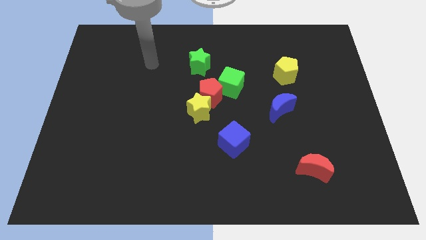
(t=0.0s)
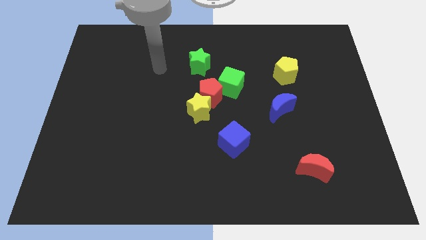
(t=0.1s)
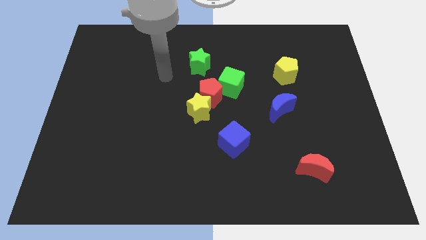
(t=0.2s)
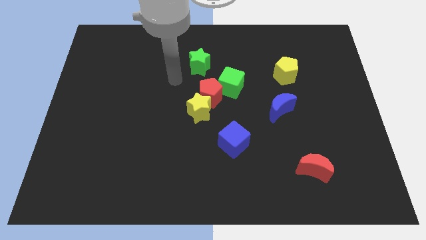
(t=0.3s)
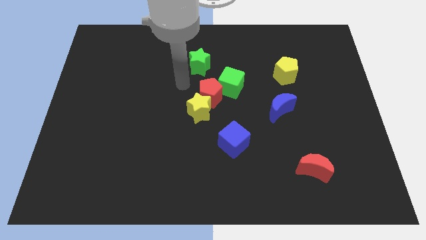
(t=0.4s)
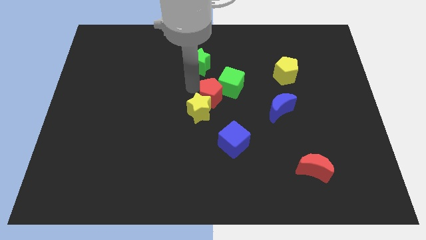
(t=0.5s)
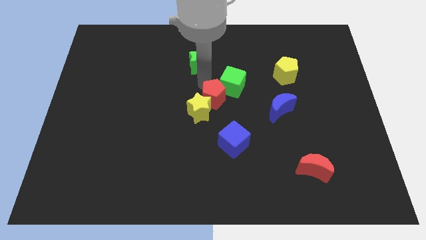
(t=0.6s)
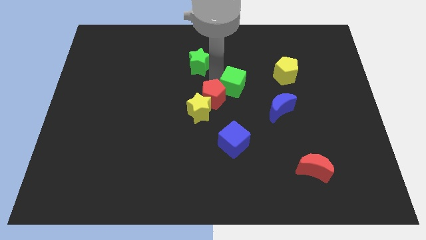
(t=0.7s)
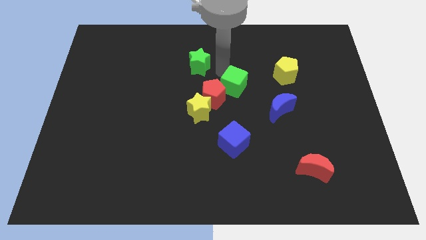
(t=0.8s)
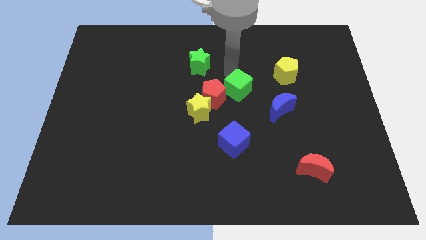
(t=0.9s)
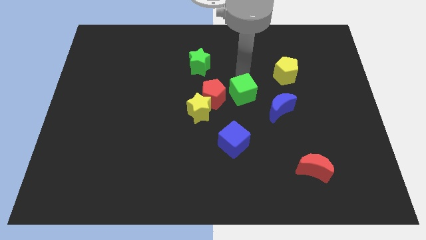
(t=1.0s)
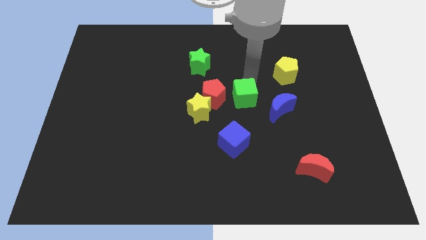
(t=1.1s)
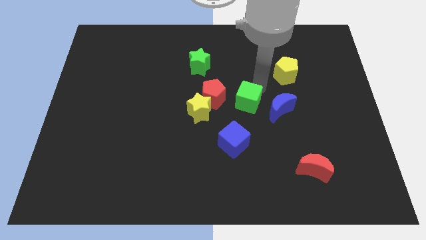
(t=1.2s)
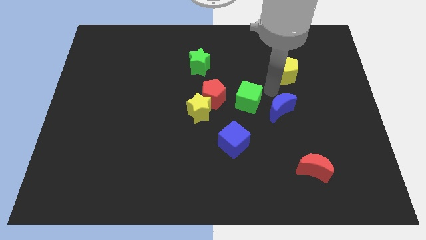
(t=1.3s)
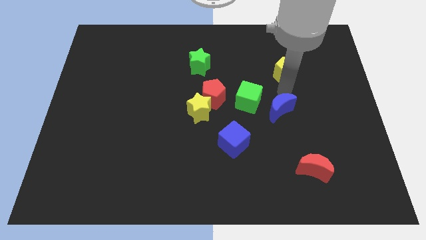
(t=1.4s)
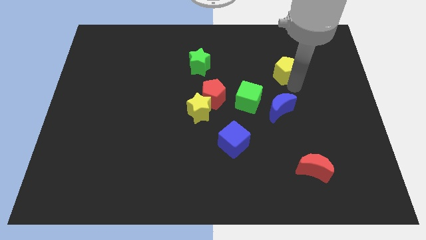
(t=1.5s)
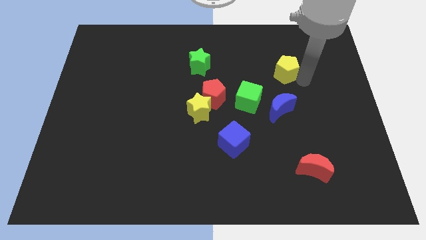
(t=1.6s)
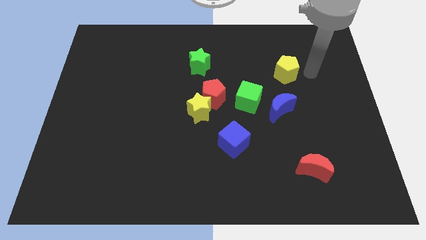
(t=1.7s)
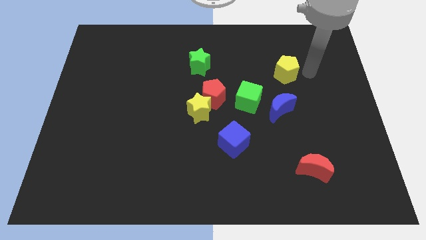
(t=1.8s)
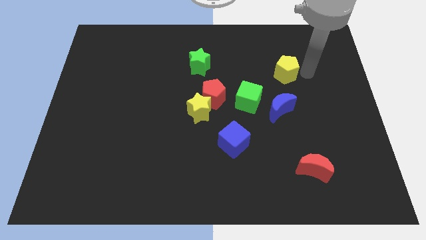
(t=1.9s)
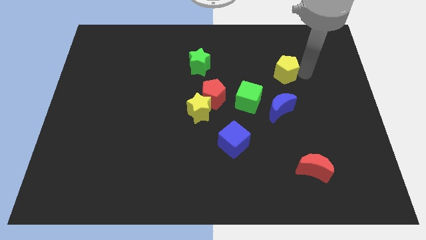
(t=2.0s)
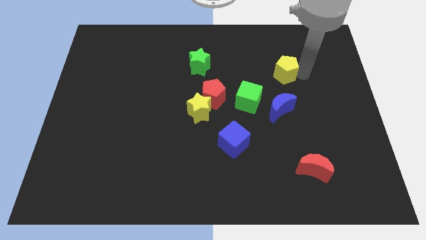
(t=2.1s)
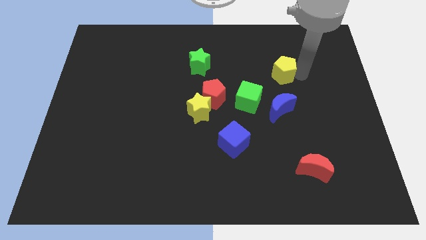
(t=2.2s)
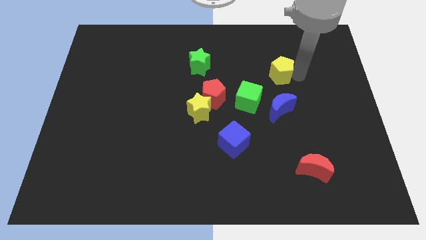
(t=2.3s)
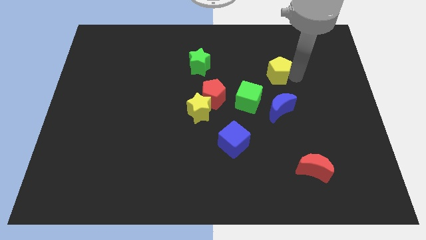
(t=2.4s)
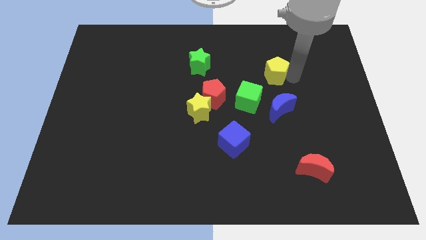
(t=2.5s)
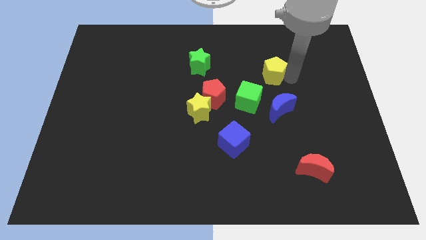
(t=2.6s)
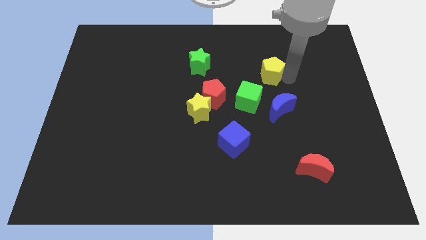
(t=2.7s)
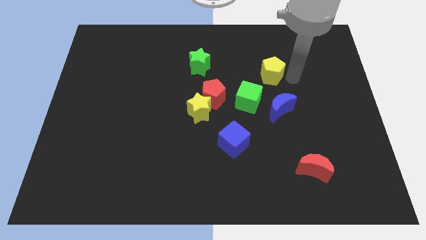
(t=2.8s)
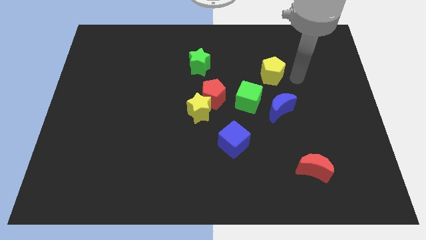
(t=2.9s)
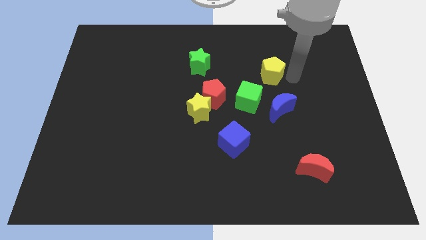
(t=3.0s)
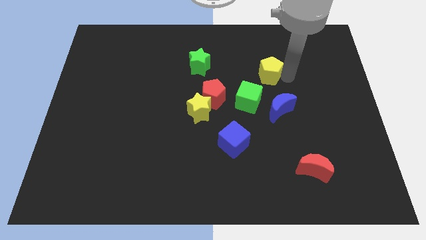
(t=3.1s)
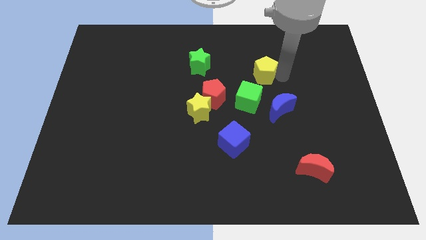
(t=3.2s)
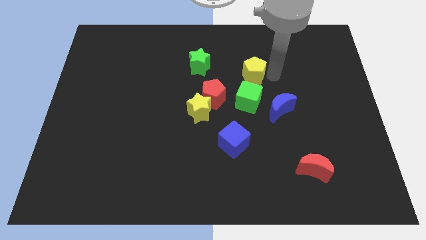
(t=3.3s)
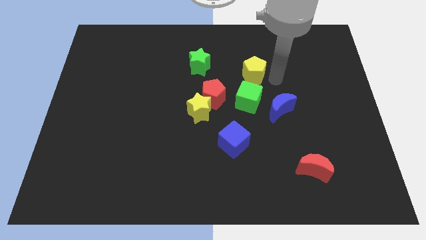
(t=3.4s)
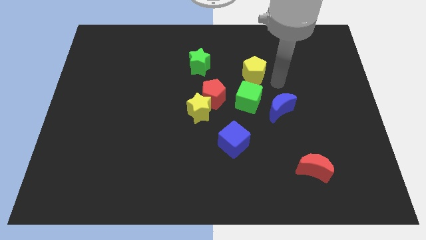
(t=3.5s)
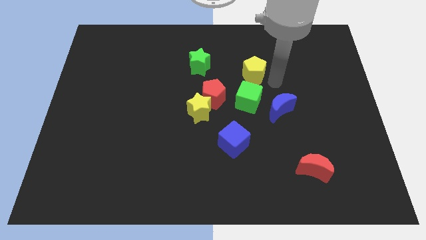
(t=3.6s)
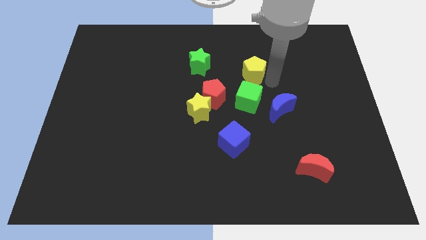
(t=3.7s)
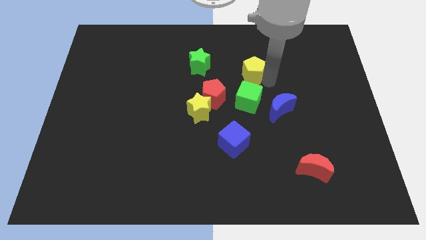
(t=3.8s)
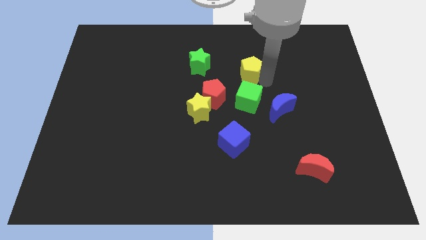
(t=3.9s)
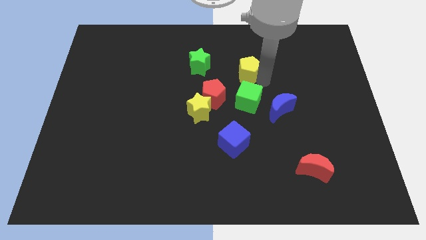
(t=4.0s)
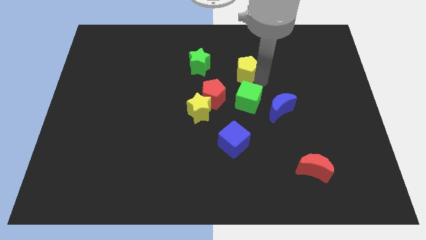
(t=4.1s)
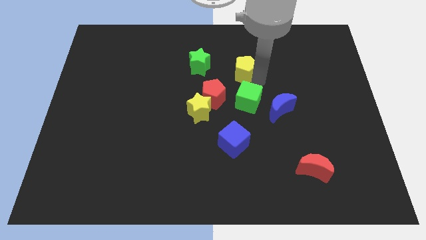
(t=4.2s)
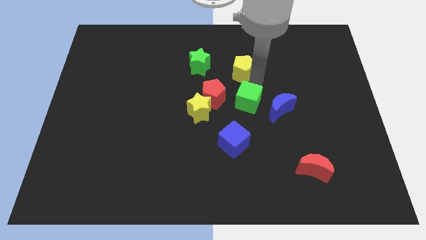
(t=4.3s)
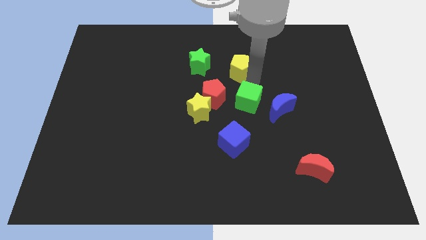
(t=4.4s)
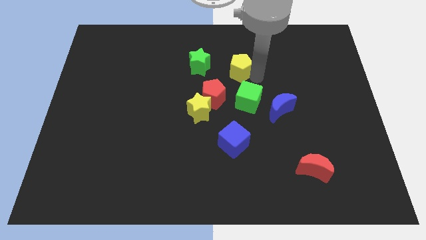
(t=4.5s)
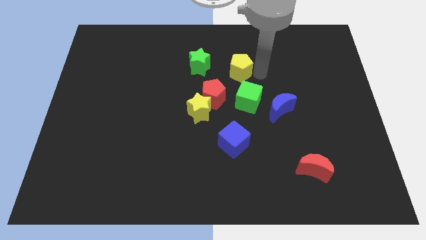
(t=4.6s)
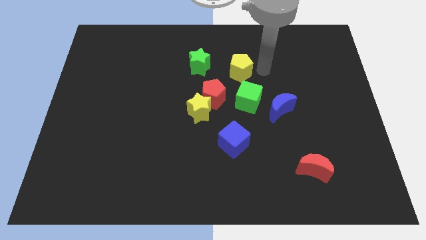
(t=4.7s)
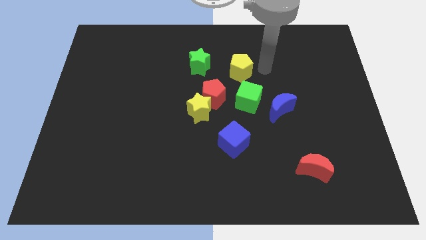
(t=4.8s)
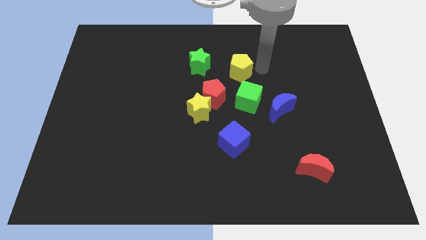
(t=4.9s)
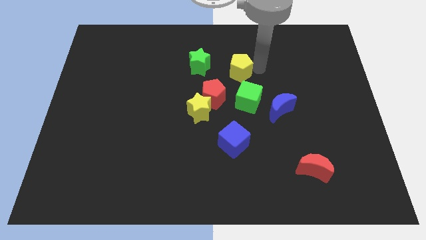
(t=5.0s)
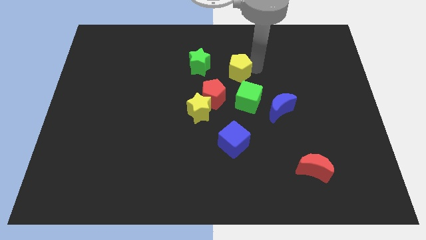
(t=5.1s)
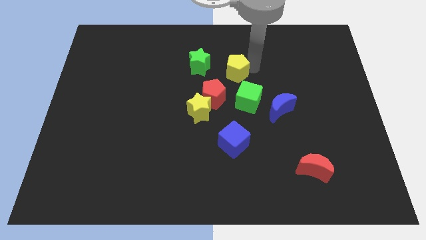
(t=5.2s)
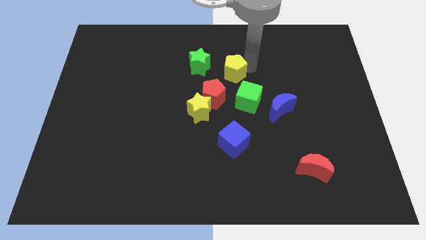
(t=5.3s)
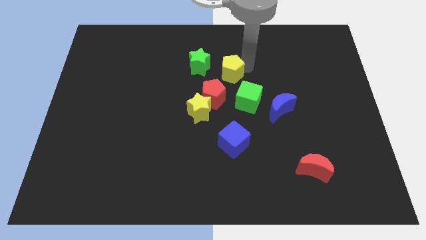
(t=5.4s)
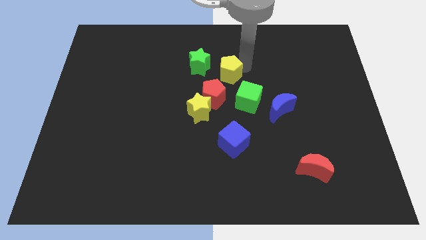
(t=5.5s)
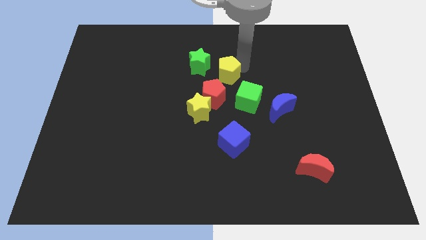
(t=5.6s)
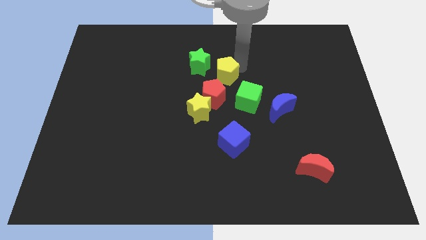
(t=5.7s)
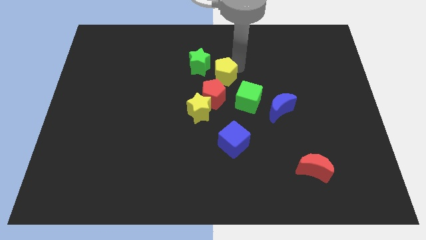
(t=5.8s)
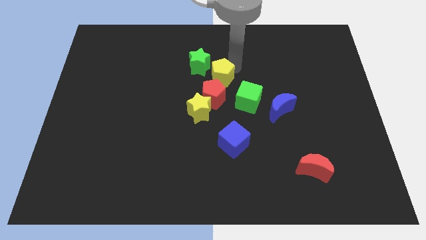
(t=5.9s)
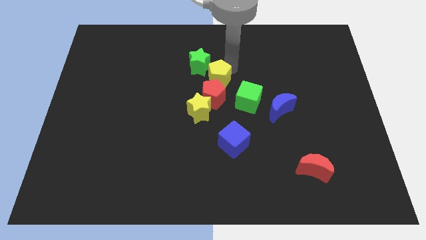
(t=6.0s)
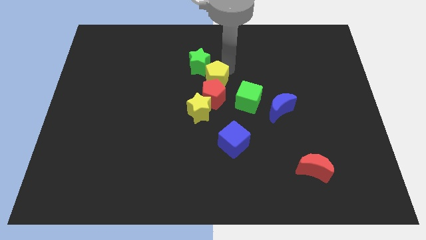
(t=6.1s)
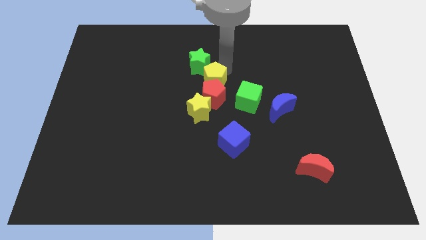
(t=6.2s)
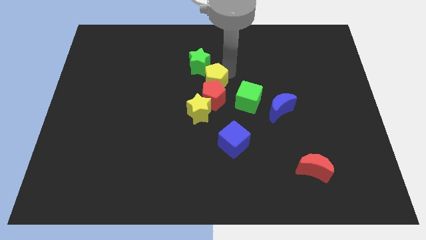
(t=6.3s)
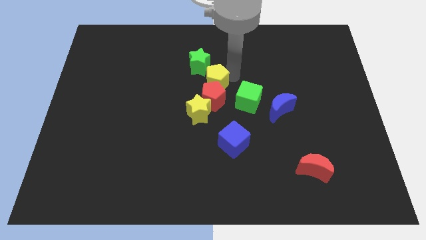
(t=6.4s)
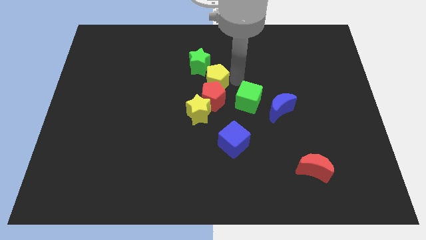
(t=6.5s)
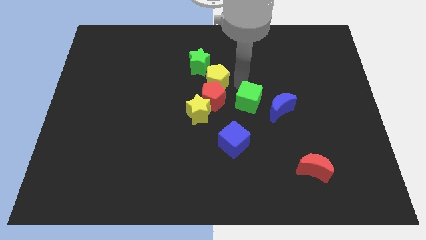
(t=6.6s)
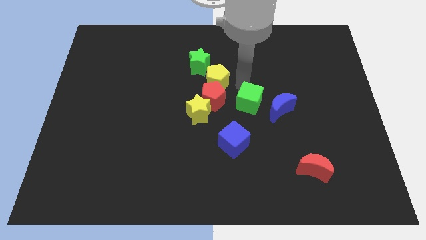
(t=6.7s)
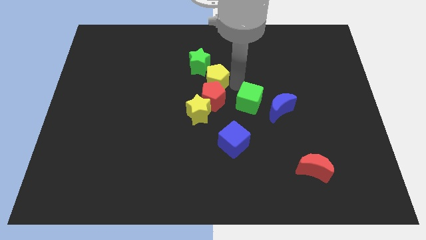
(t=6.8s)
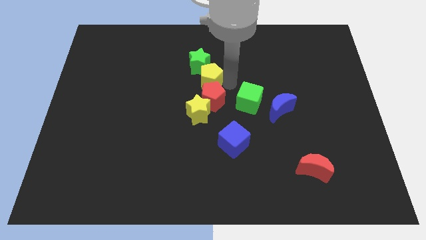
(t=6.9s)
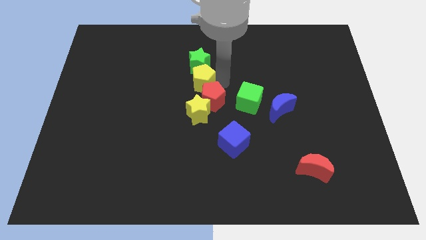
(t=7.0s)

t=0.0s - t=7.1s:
slide the yellow pentagon left

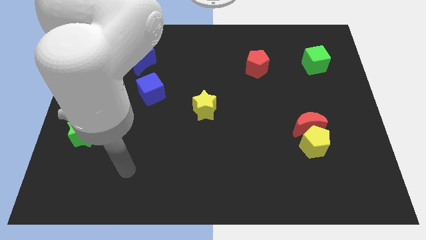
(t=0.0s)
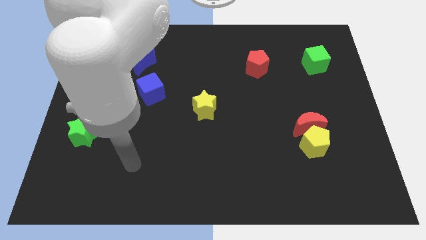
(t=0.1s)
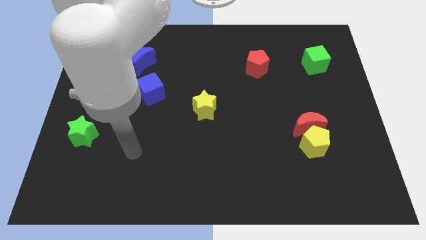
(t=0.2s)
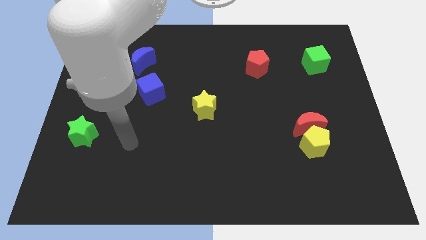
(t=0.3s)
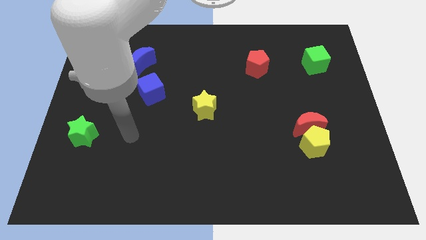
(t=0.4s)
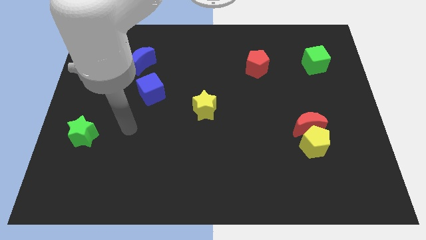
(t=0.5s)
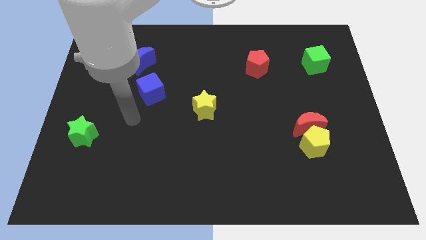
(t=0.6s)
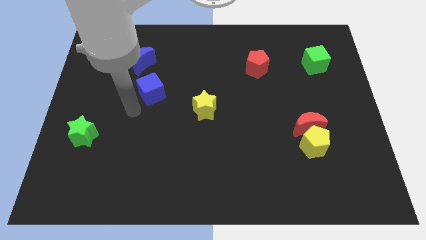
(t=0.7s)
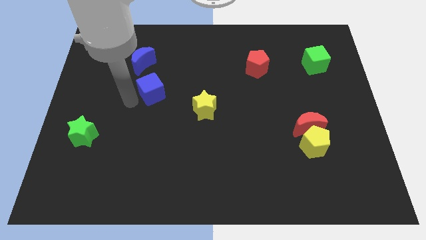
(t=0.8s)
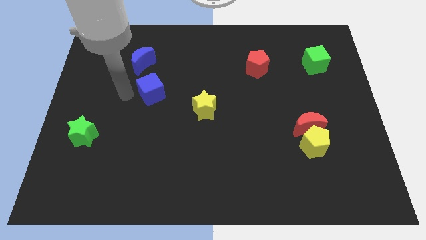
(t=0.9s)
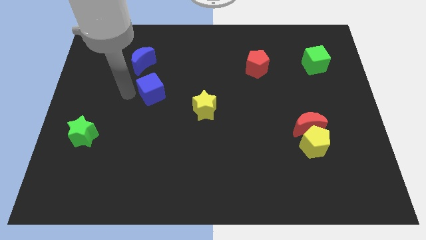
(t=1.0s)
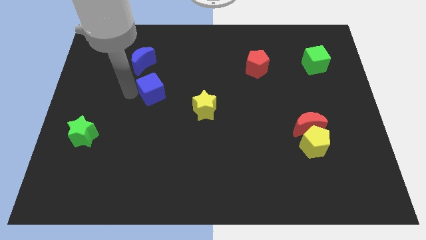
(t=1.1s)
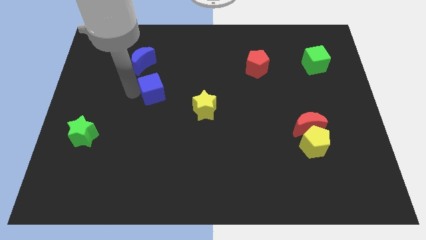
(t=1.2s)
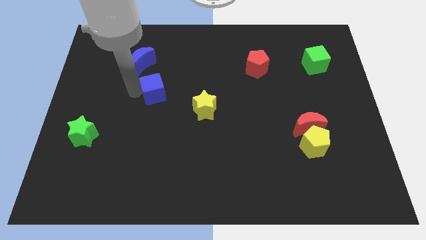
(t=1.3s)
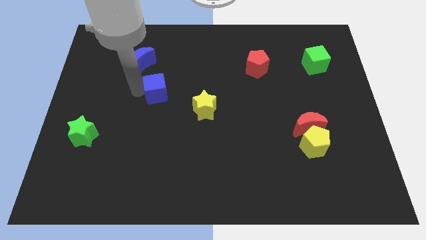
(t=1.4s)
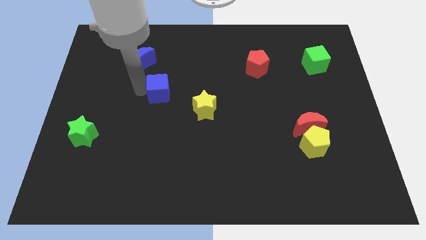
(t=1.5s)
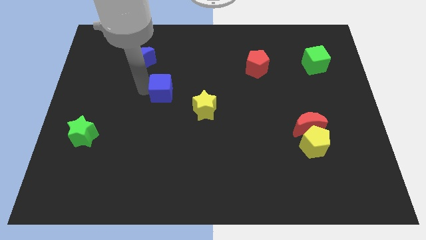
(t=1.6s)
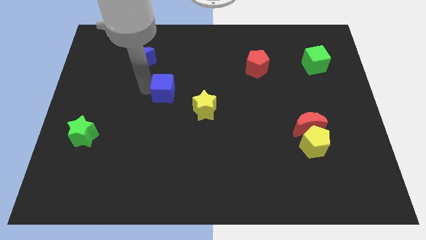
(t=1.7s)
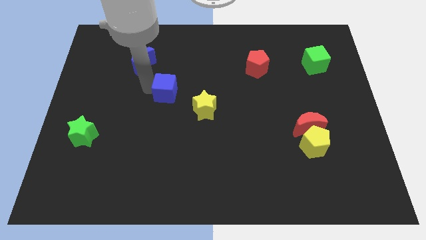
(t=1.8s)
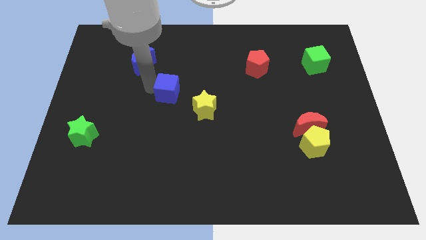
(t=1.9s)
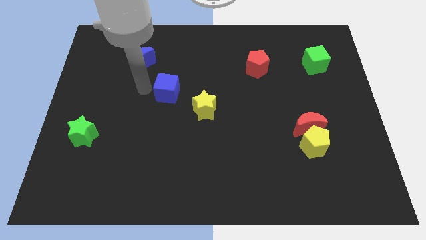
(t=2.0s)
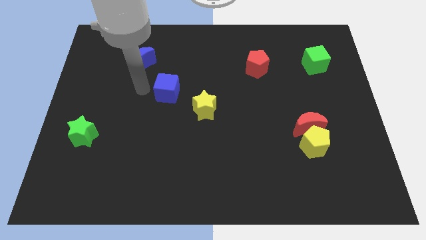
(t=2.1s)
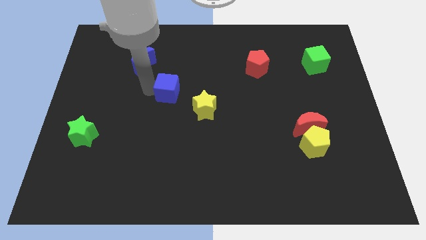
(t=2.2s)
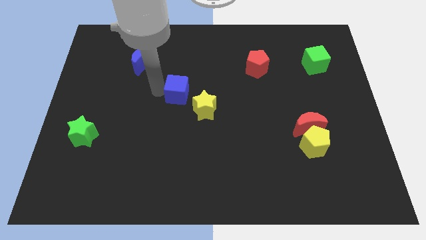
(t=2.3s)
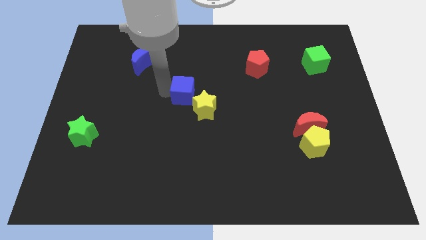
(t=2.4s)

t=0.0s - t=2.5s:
slightly slide the blue cube right
